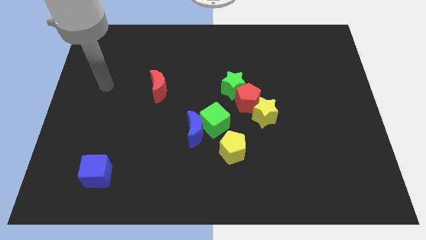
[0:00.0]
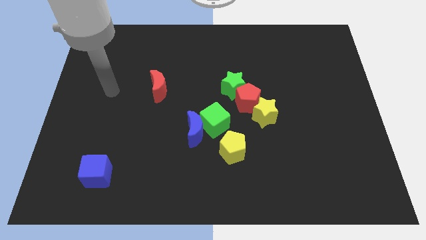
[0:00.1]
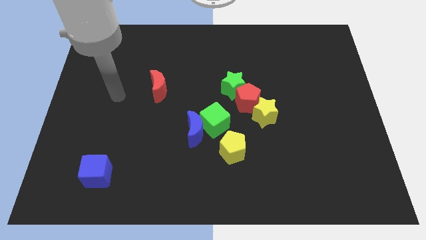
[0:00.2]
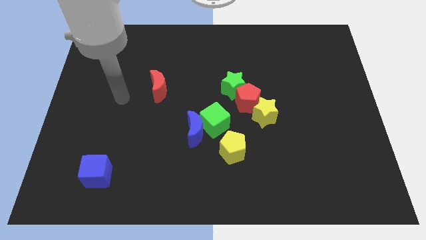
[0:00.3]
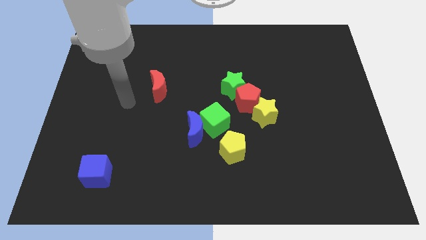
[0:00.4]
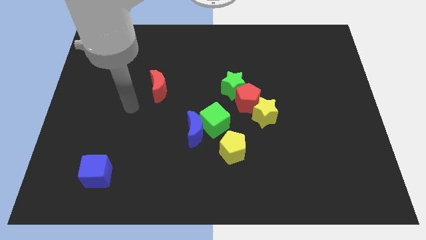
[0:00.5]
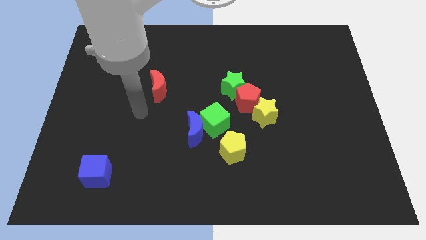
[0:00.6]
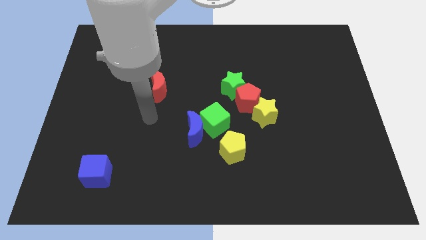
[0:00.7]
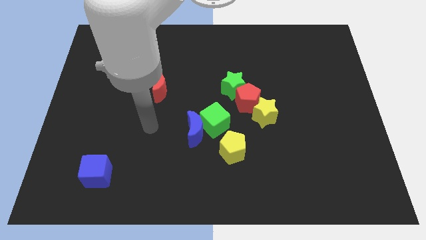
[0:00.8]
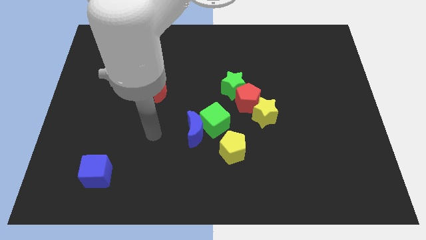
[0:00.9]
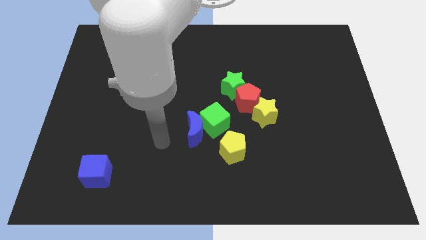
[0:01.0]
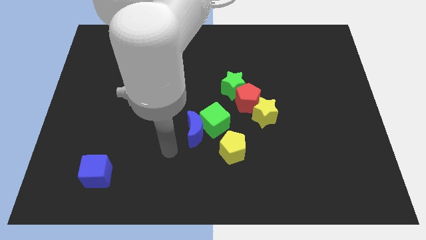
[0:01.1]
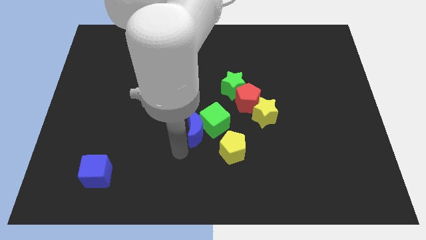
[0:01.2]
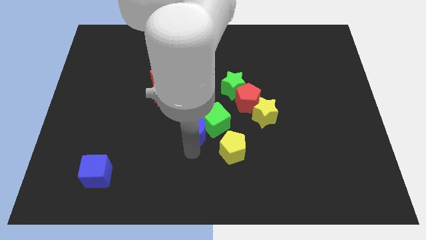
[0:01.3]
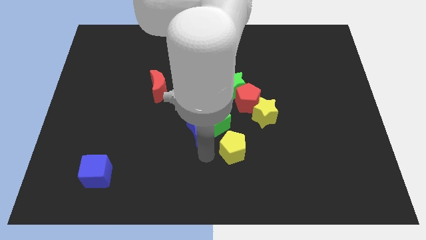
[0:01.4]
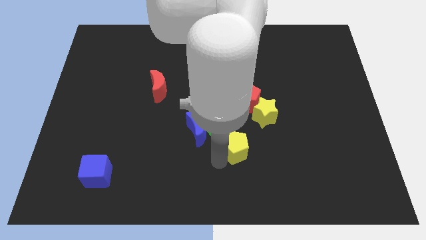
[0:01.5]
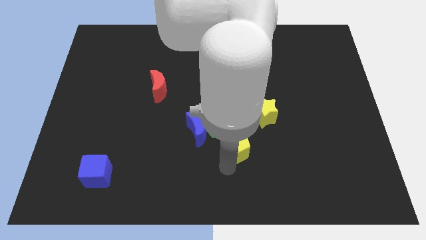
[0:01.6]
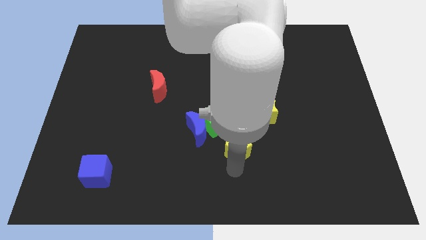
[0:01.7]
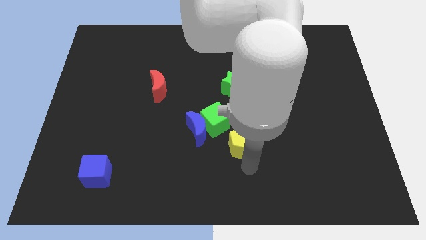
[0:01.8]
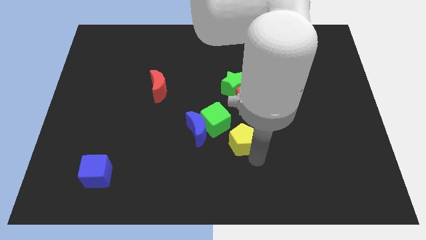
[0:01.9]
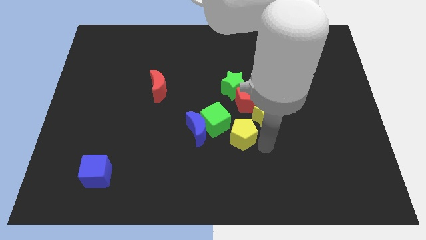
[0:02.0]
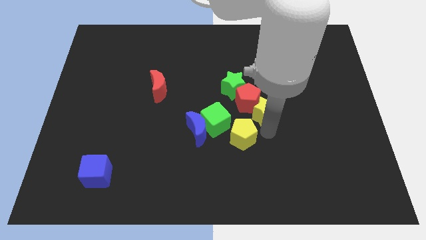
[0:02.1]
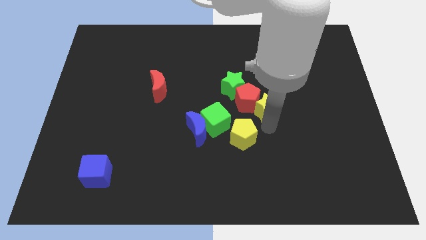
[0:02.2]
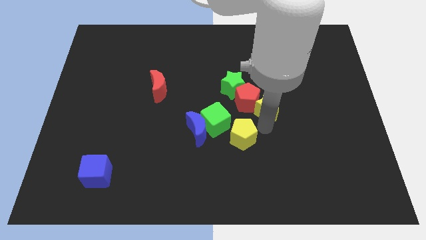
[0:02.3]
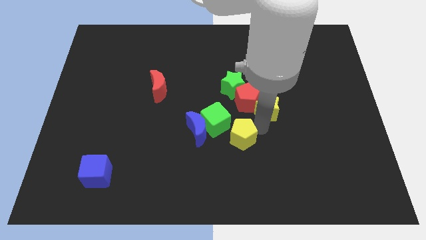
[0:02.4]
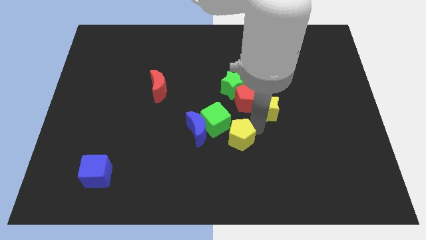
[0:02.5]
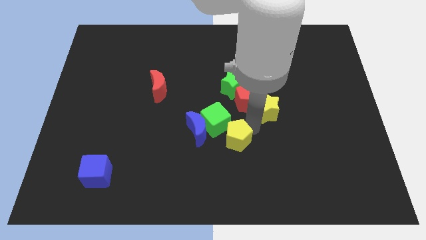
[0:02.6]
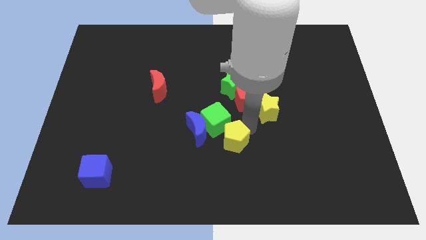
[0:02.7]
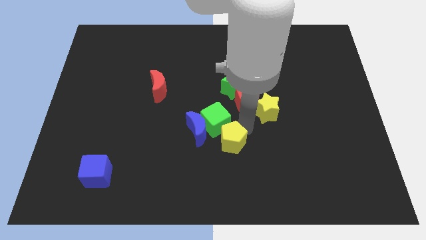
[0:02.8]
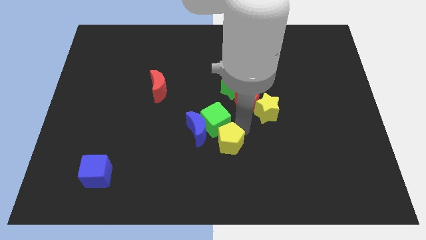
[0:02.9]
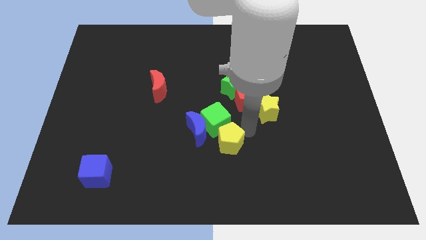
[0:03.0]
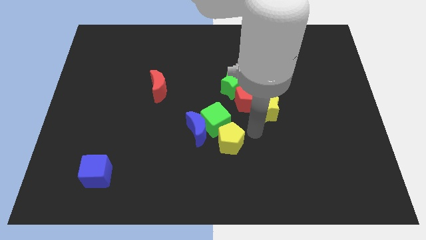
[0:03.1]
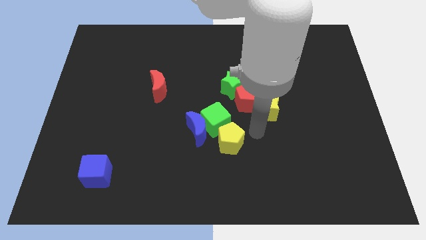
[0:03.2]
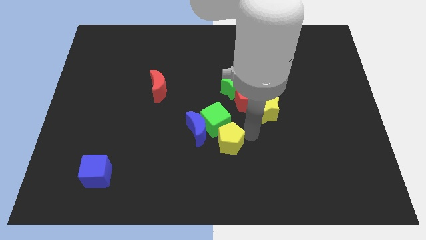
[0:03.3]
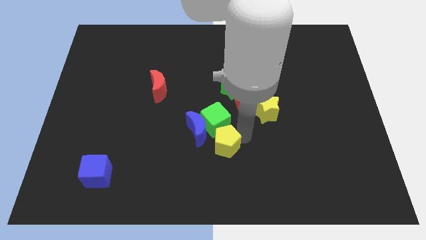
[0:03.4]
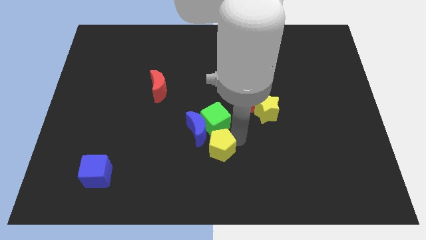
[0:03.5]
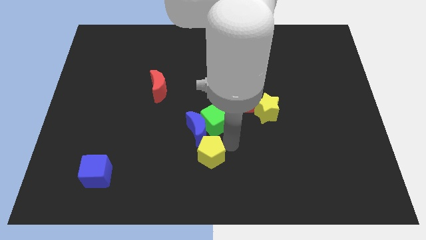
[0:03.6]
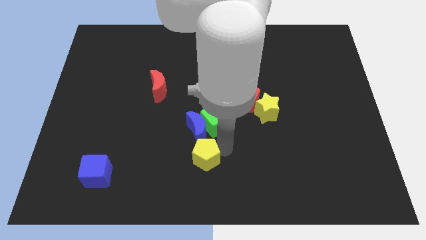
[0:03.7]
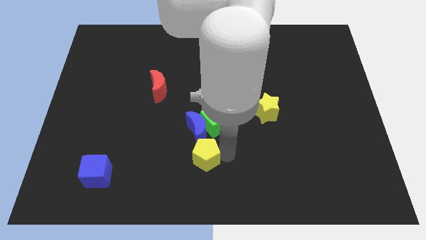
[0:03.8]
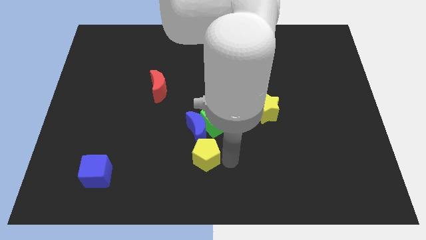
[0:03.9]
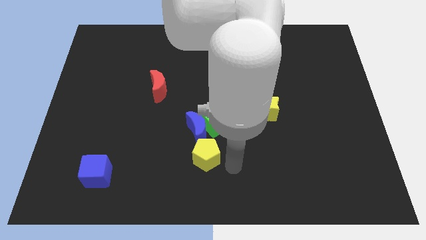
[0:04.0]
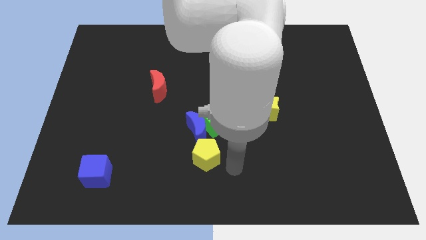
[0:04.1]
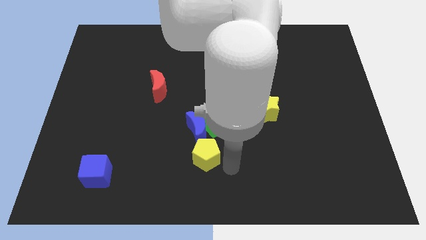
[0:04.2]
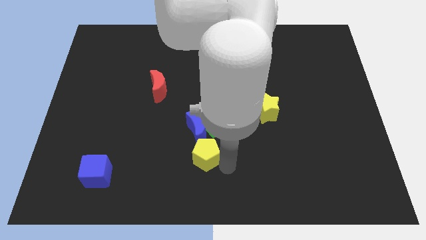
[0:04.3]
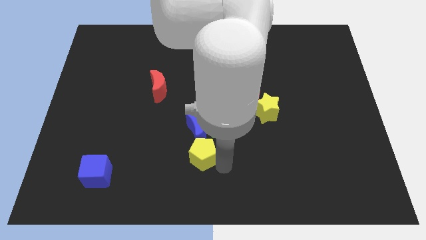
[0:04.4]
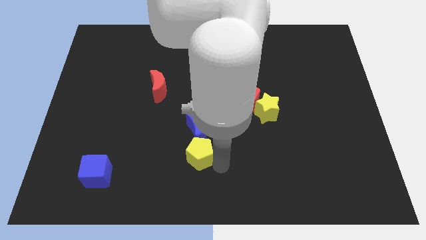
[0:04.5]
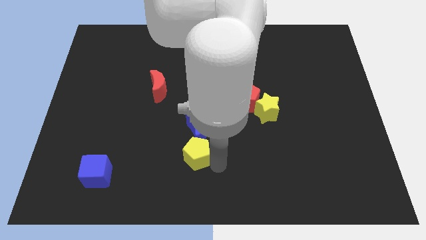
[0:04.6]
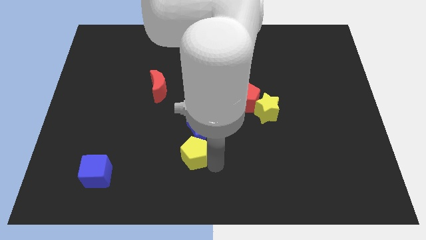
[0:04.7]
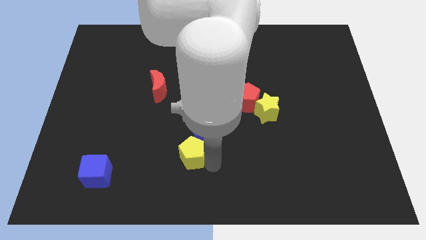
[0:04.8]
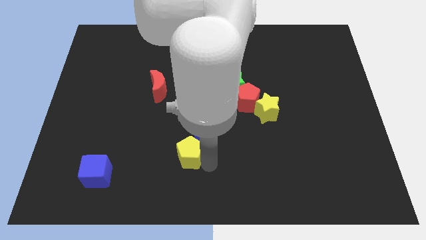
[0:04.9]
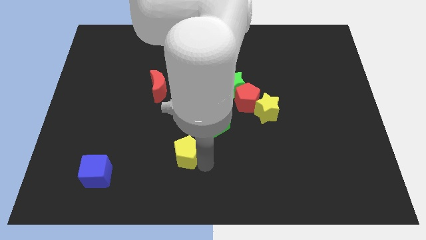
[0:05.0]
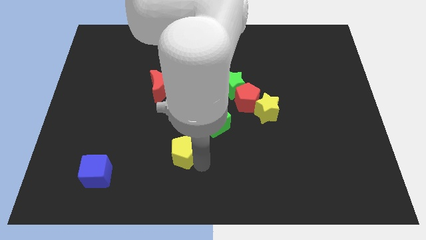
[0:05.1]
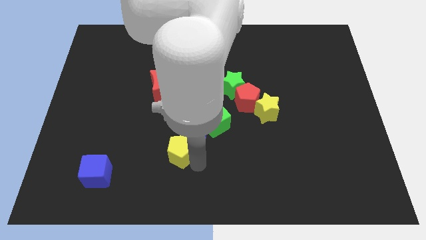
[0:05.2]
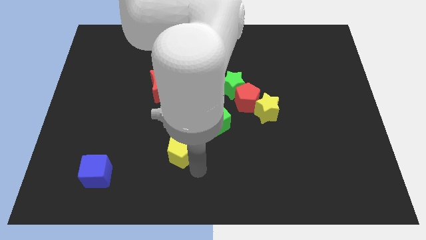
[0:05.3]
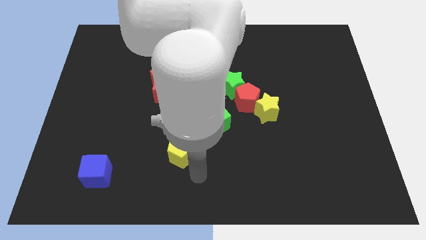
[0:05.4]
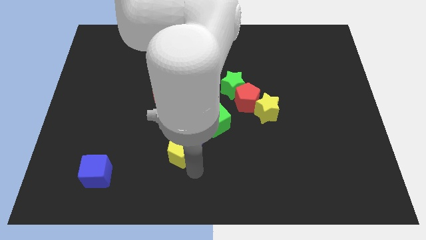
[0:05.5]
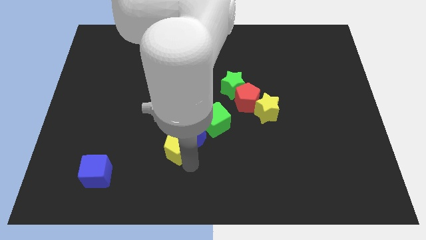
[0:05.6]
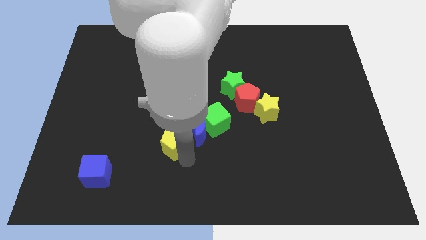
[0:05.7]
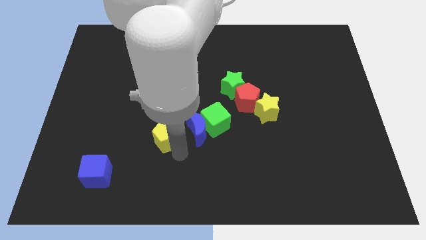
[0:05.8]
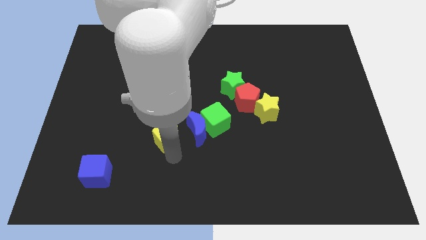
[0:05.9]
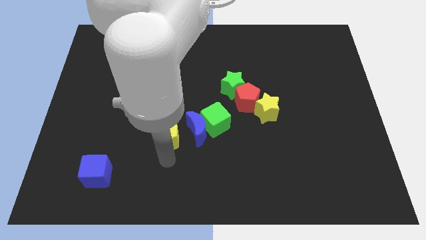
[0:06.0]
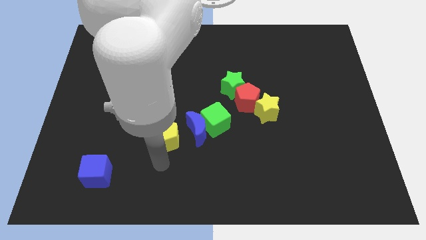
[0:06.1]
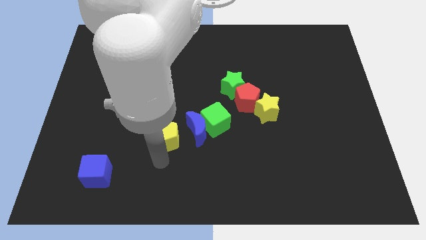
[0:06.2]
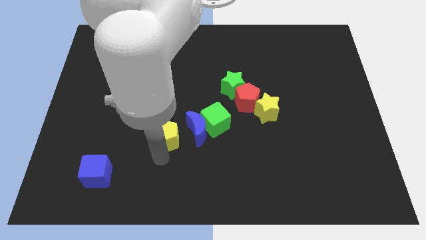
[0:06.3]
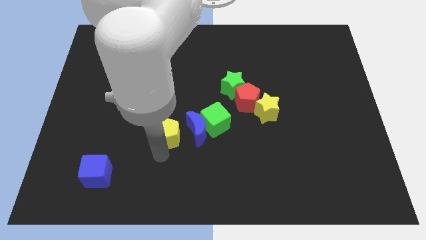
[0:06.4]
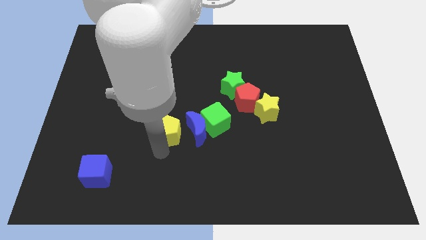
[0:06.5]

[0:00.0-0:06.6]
move the yellow pentagon to the top left of the blue moon

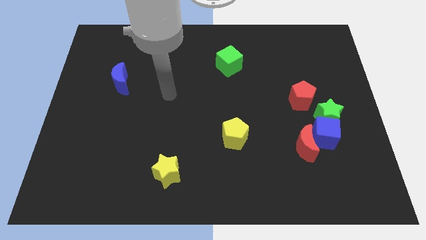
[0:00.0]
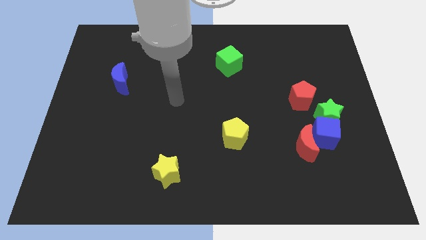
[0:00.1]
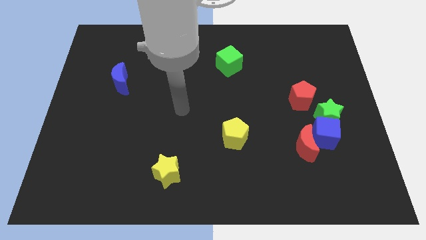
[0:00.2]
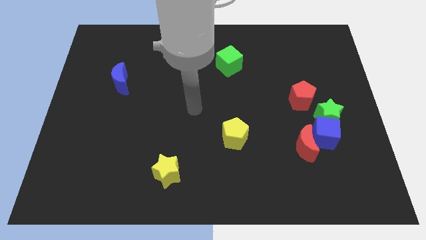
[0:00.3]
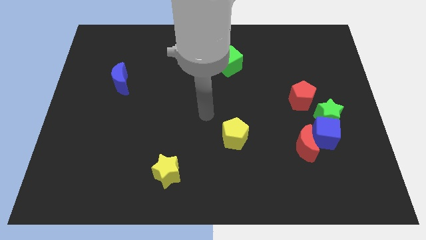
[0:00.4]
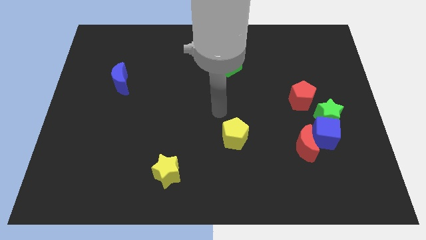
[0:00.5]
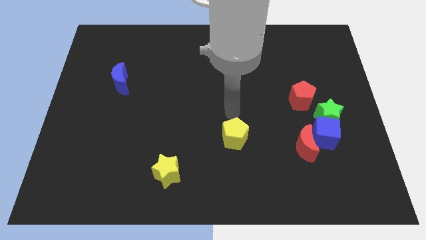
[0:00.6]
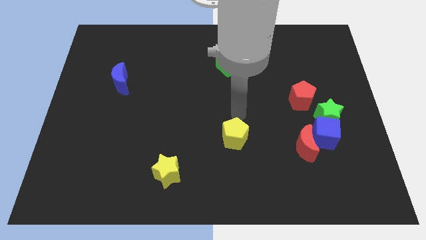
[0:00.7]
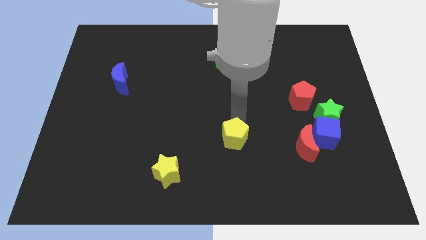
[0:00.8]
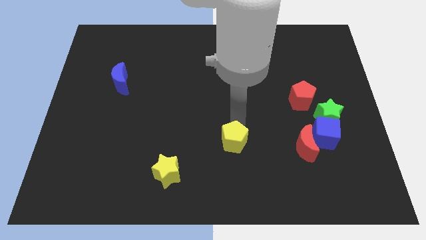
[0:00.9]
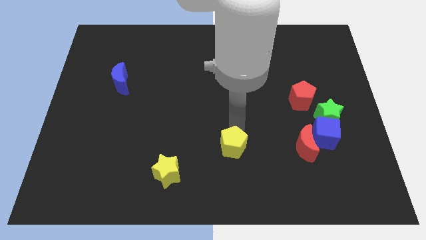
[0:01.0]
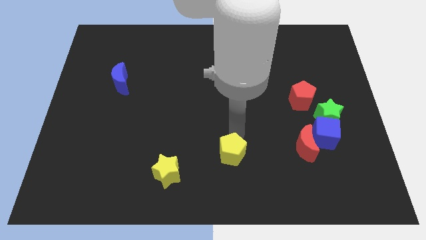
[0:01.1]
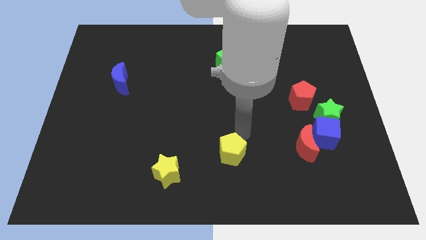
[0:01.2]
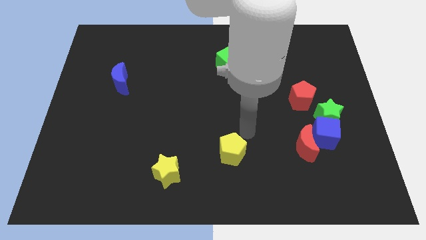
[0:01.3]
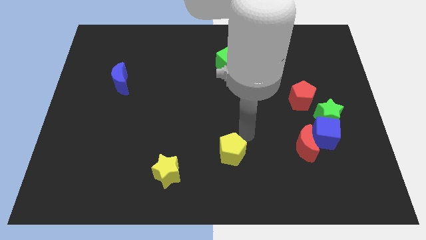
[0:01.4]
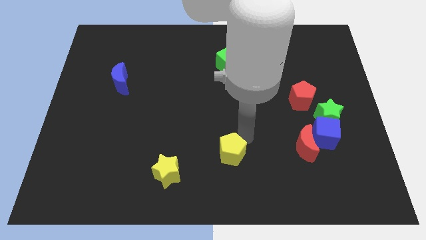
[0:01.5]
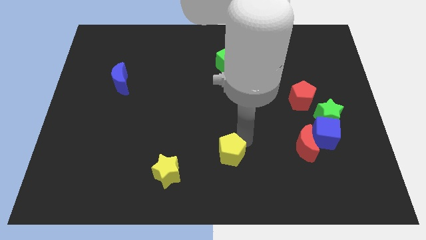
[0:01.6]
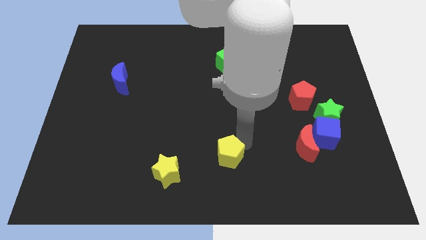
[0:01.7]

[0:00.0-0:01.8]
push the yellow pentagon to the right of the yellow star
